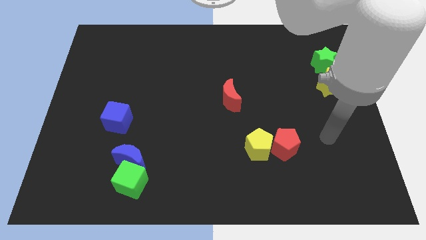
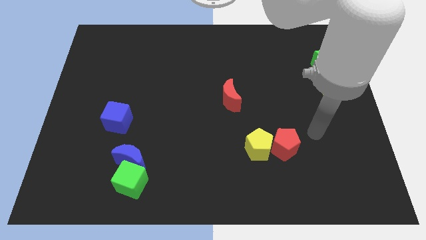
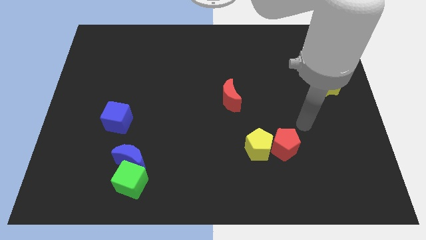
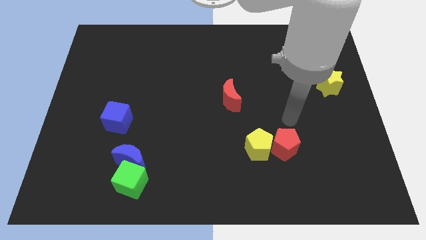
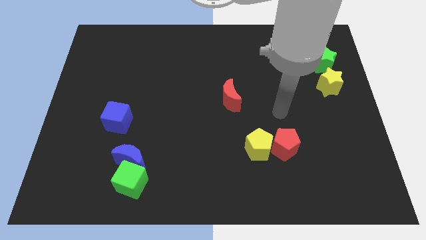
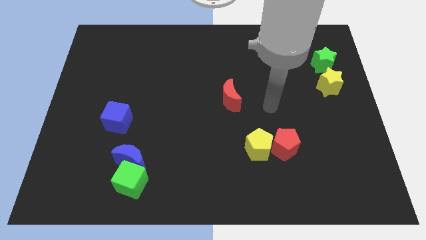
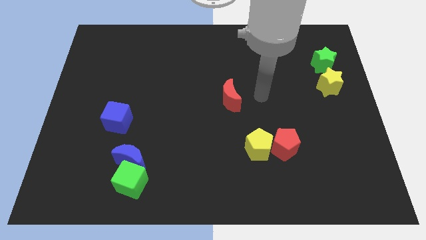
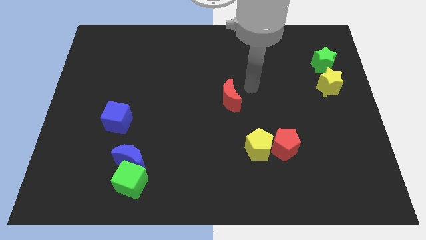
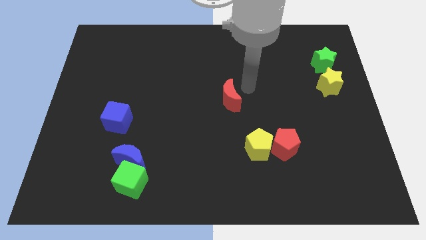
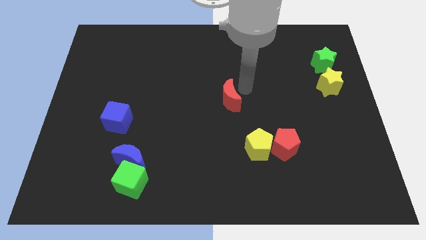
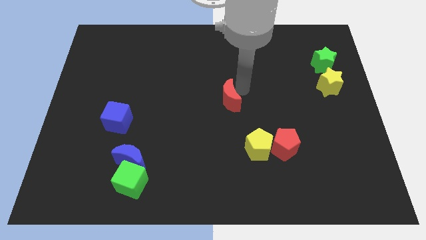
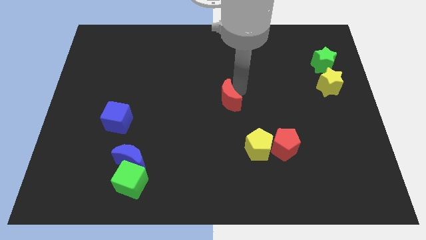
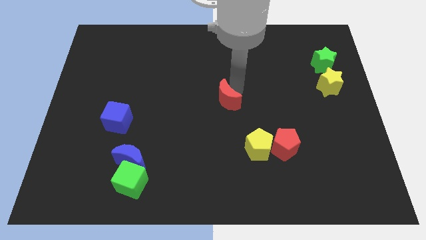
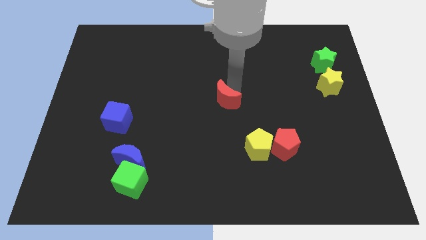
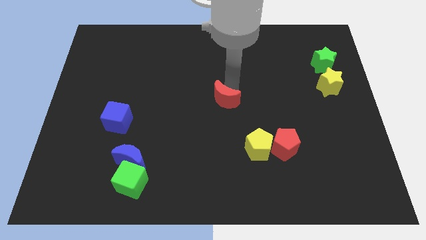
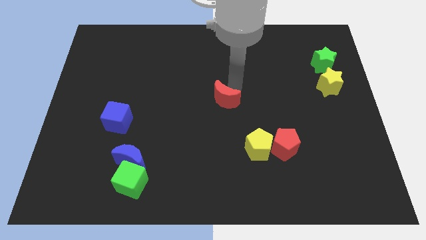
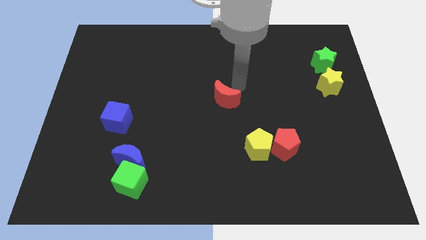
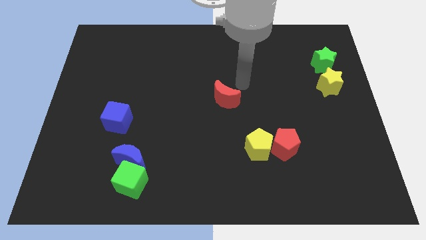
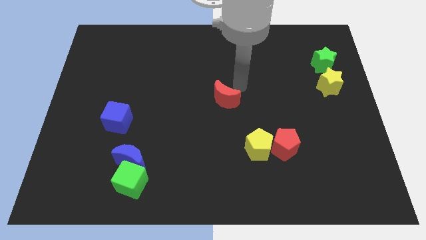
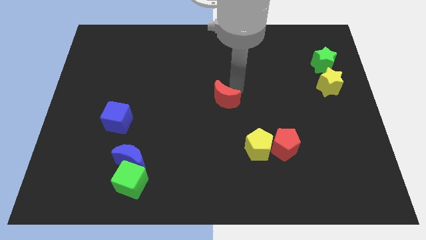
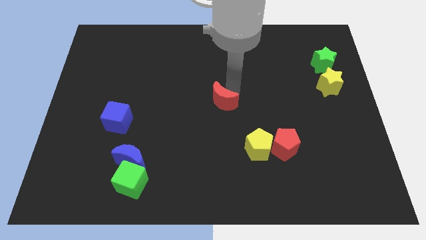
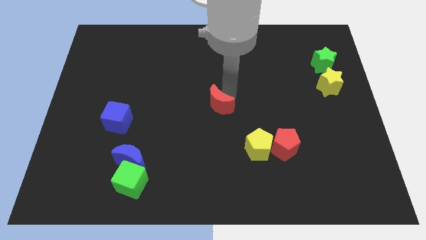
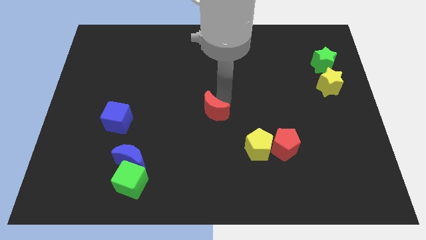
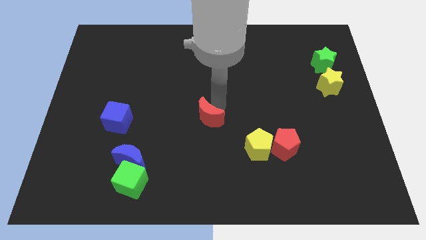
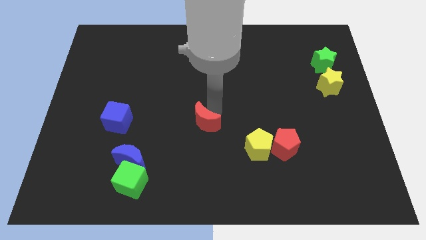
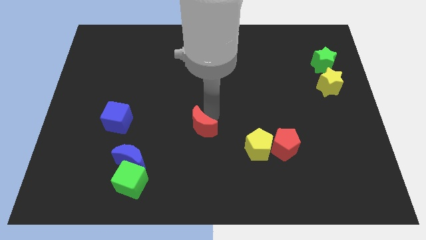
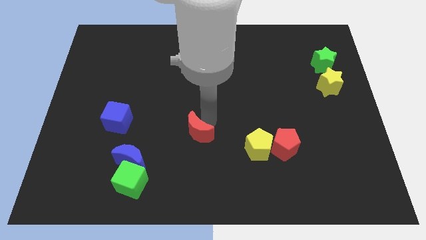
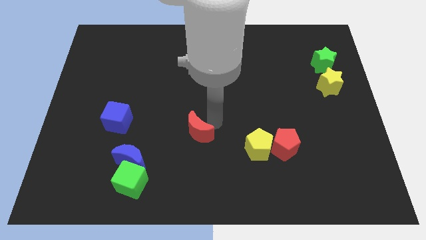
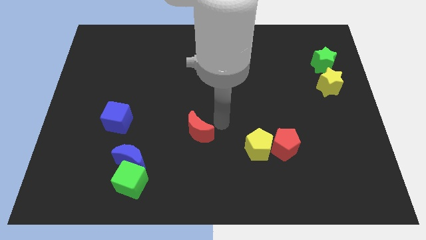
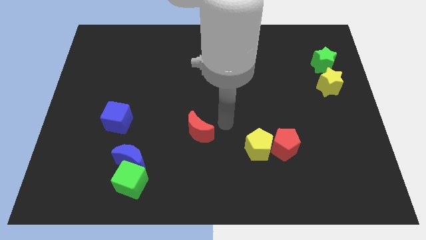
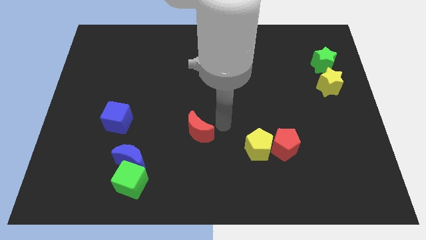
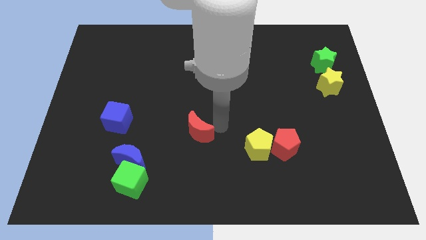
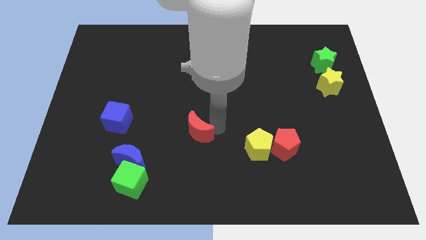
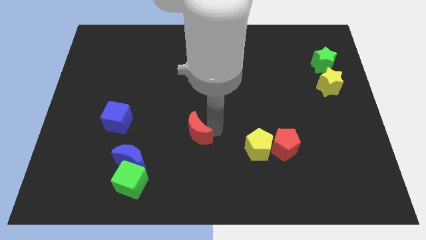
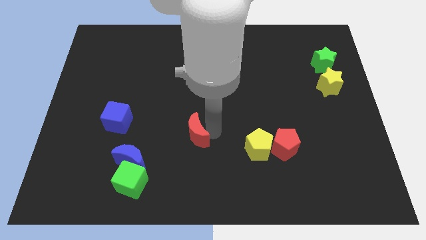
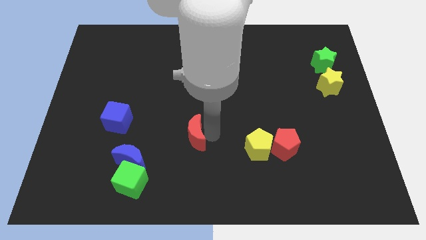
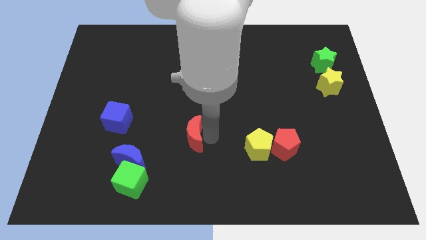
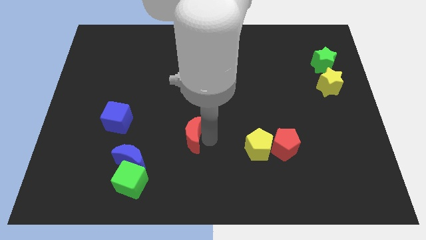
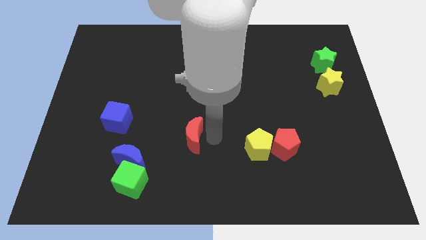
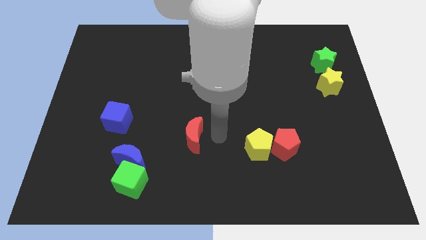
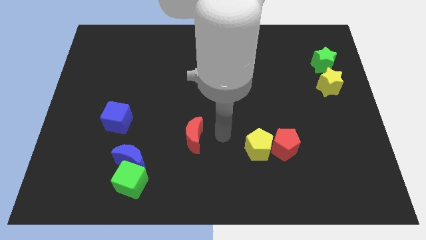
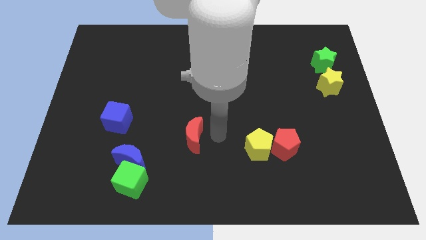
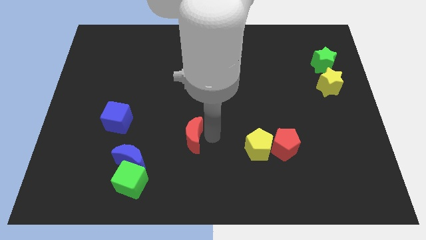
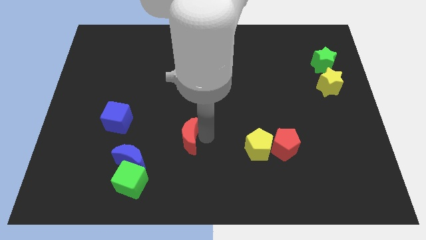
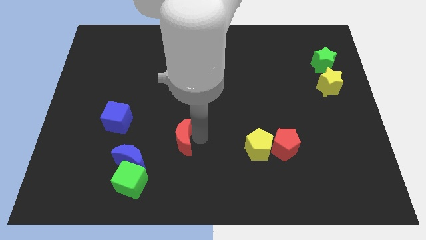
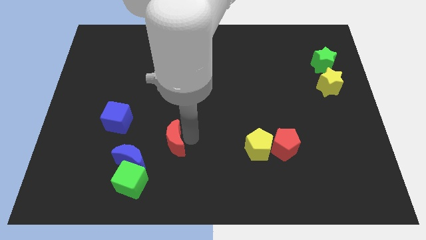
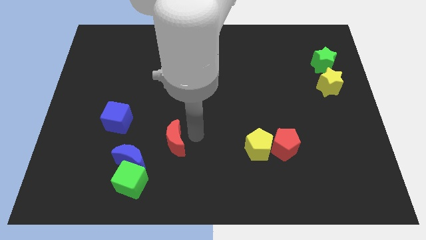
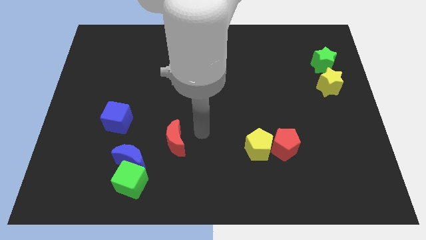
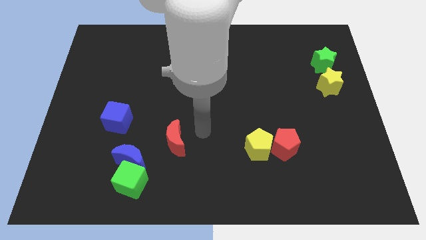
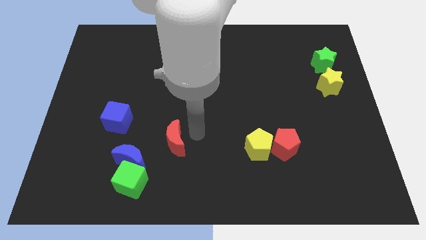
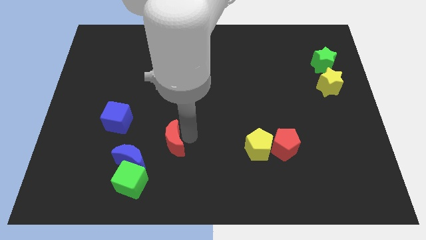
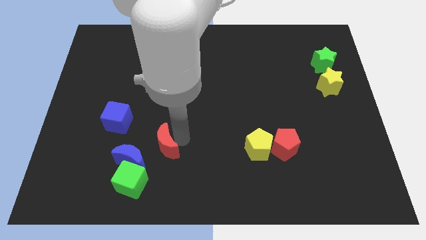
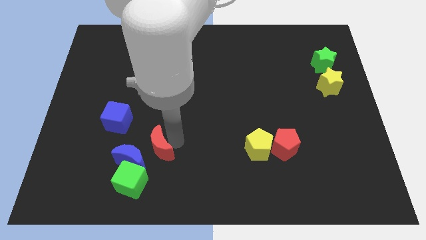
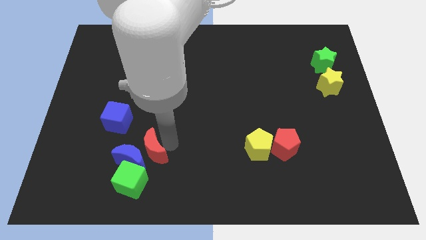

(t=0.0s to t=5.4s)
slide the red moon next to the blue moon

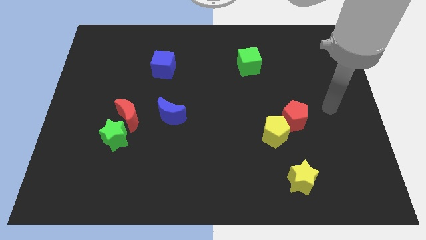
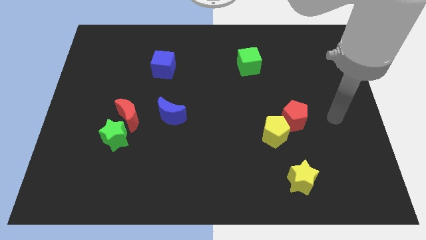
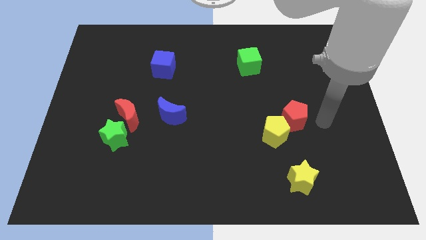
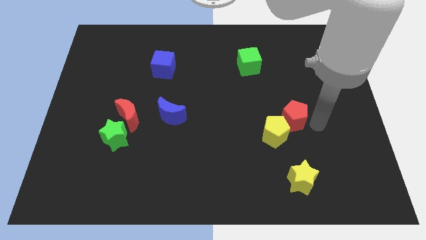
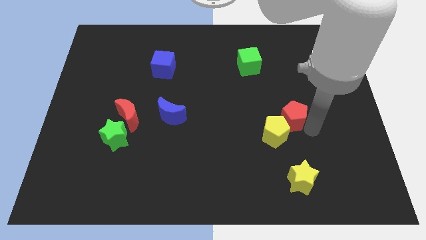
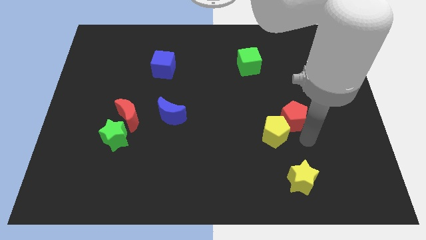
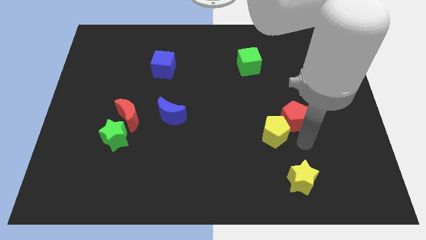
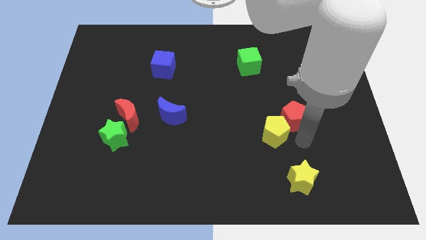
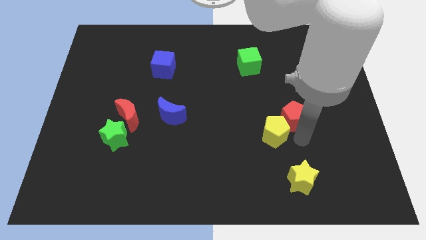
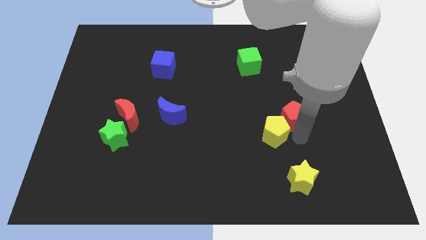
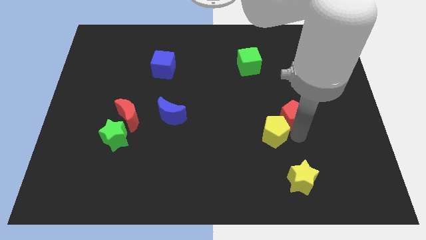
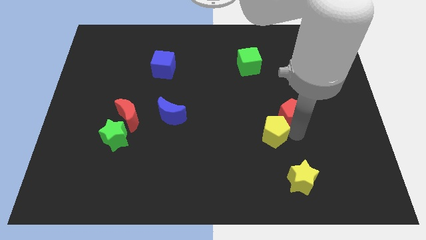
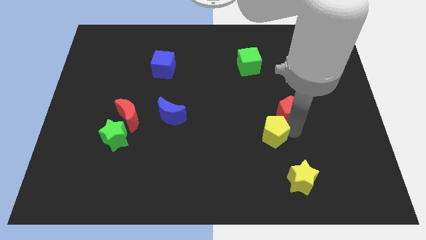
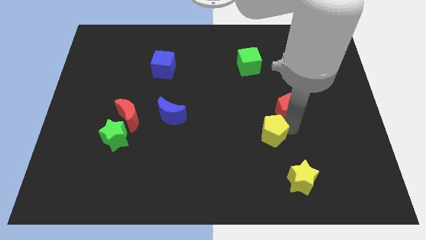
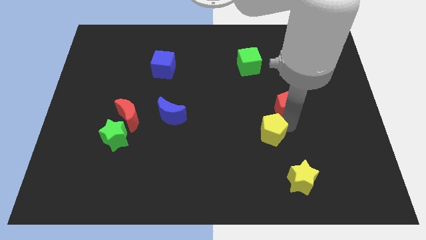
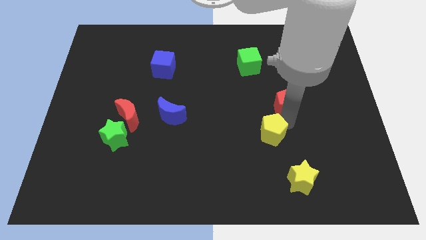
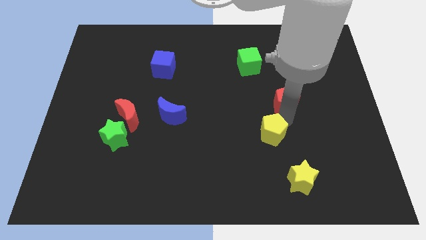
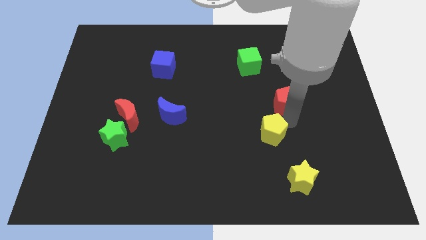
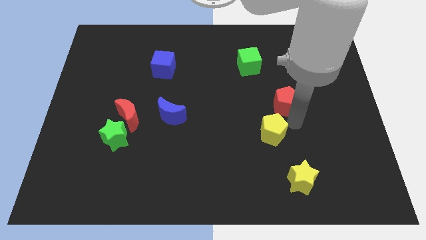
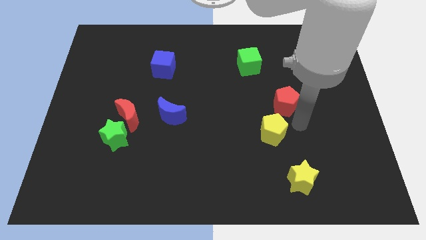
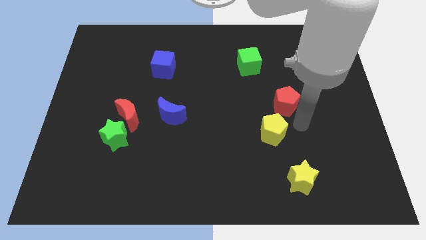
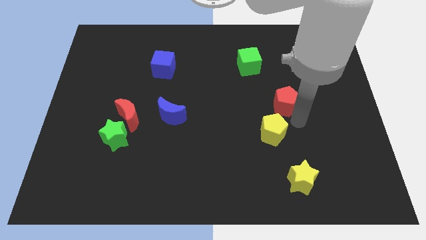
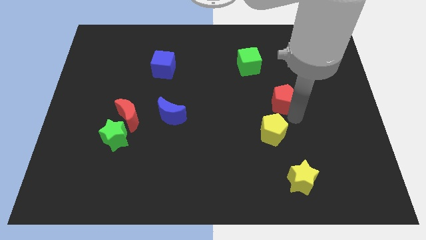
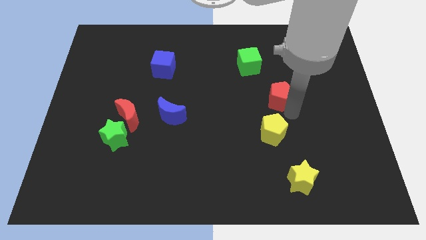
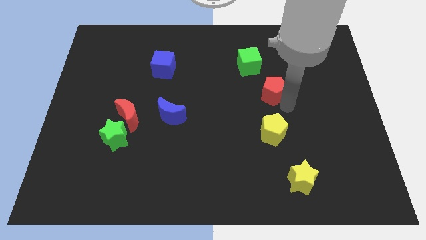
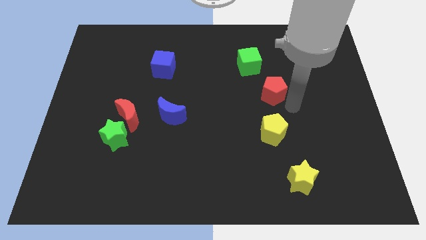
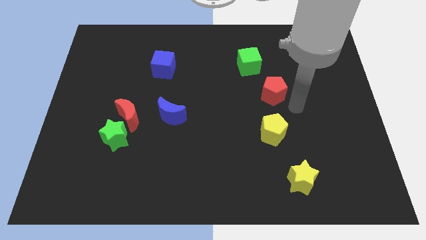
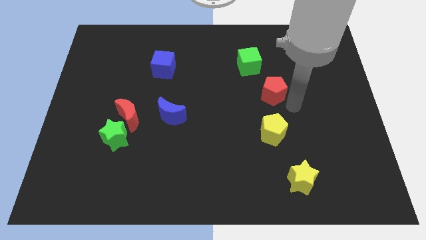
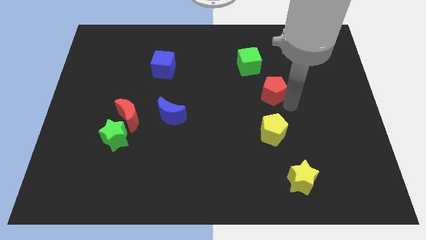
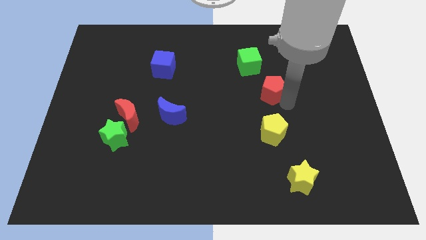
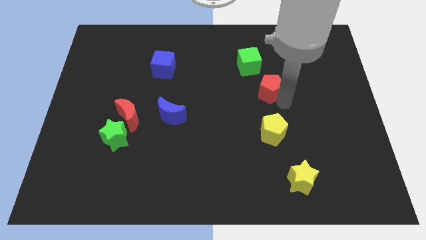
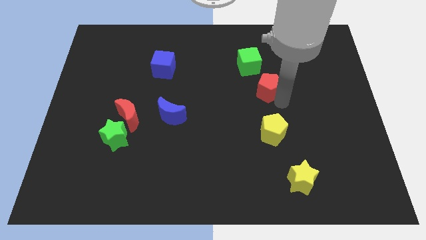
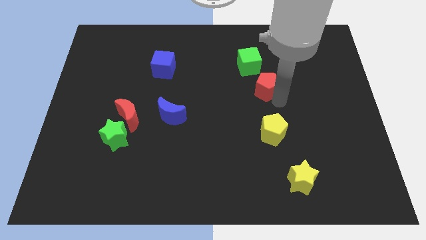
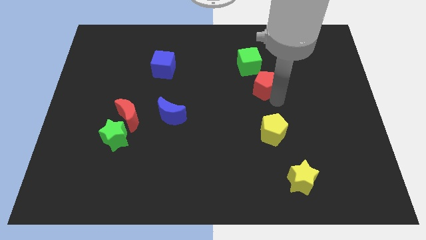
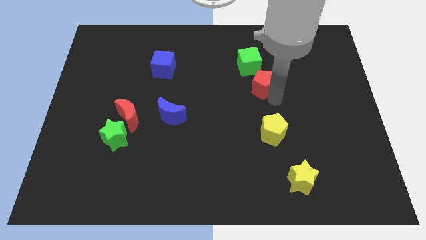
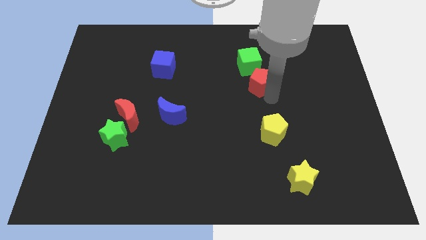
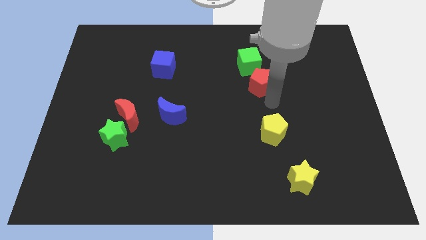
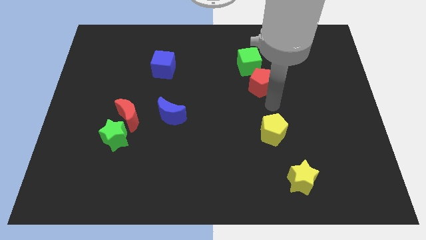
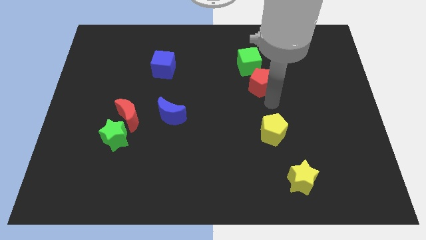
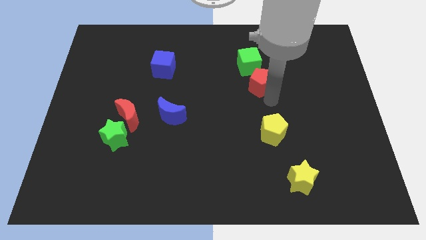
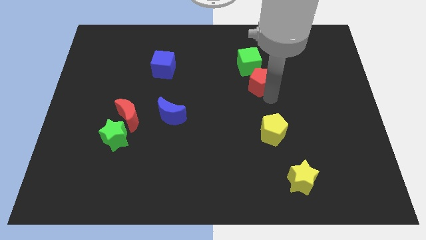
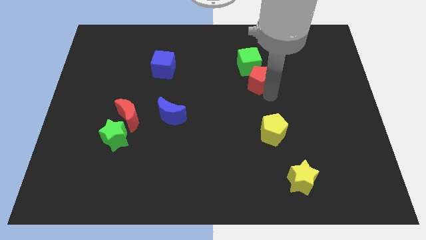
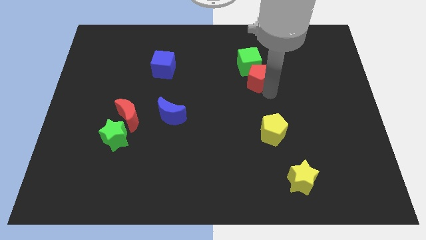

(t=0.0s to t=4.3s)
put the red pentagon next to the green cube
